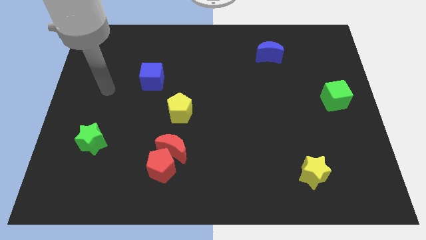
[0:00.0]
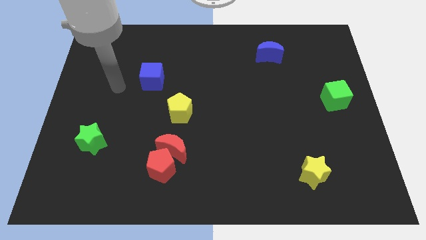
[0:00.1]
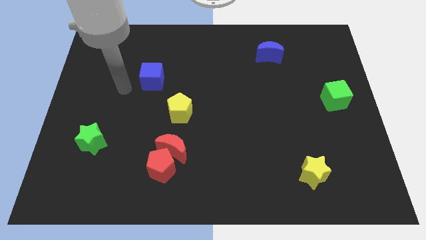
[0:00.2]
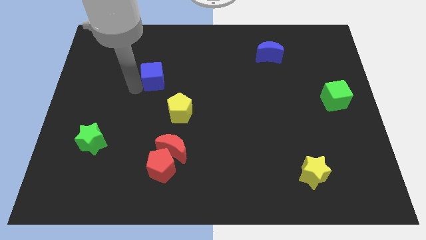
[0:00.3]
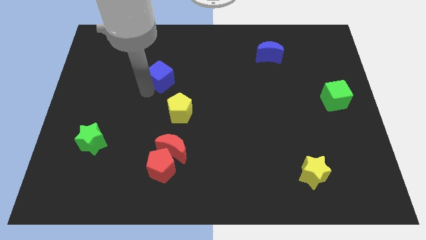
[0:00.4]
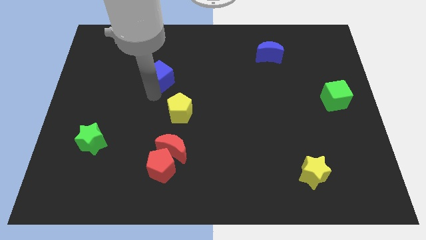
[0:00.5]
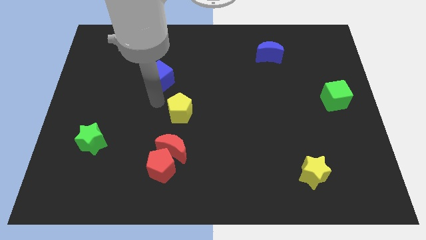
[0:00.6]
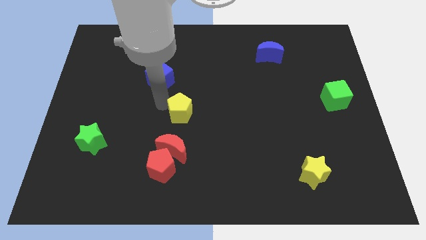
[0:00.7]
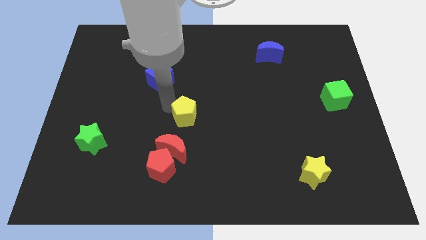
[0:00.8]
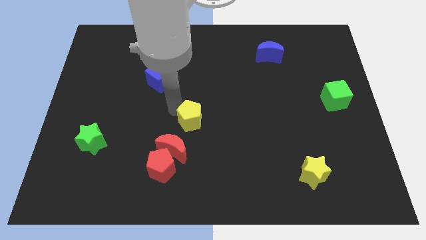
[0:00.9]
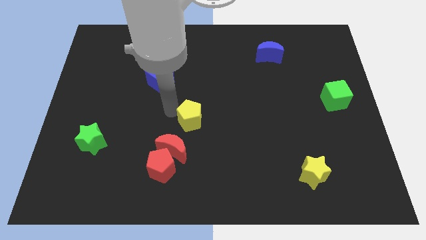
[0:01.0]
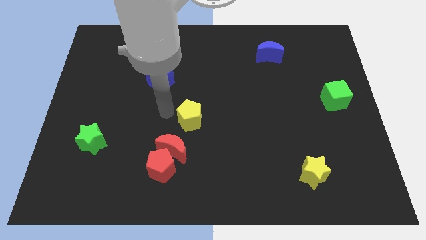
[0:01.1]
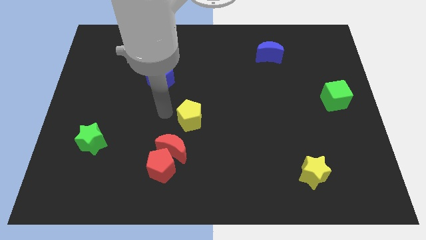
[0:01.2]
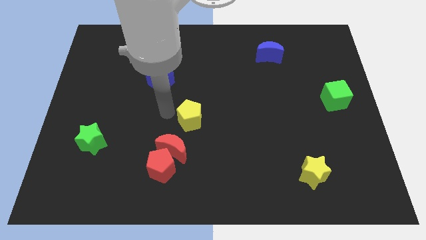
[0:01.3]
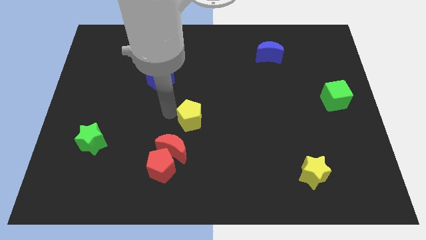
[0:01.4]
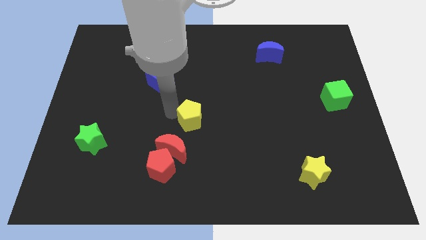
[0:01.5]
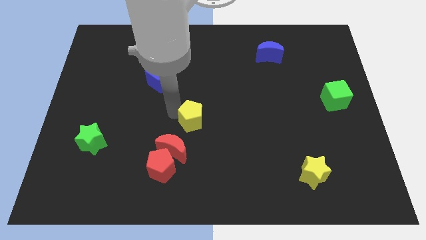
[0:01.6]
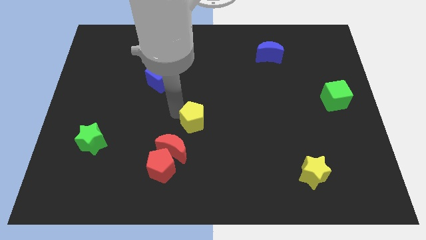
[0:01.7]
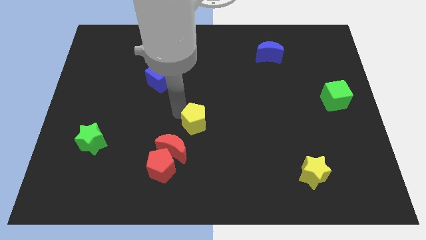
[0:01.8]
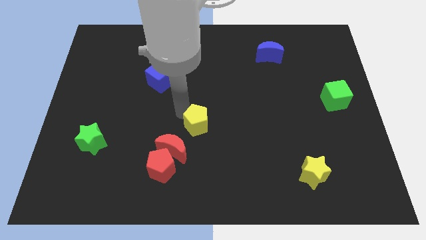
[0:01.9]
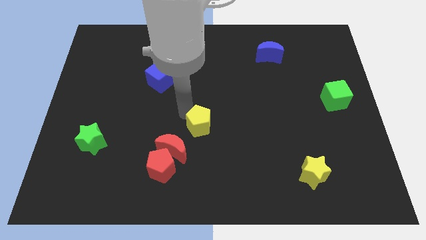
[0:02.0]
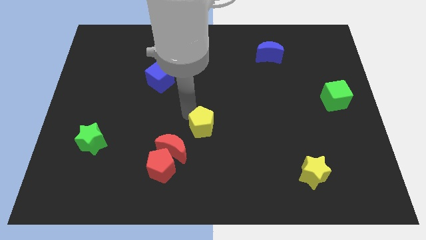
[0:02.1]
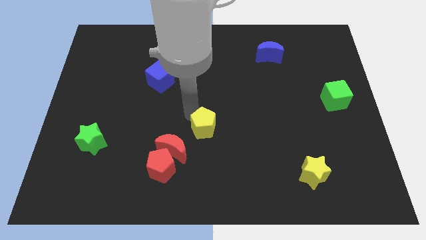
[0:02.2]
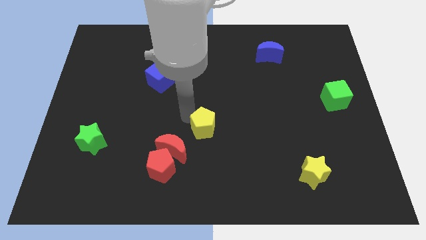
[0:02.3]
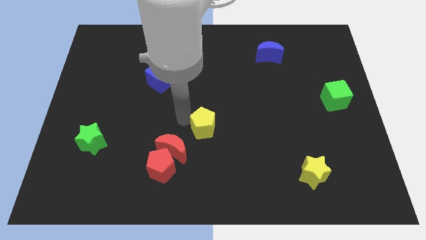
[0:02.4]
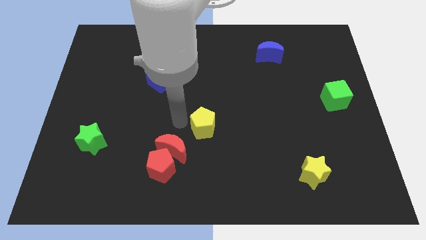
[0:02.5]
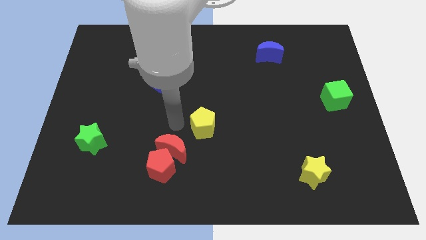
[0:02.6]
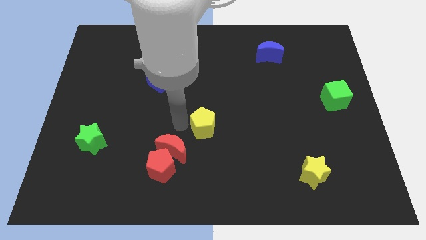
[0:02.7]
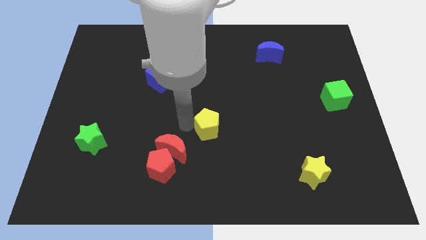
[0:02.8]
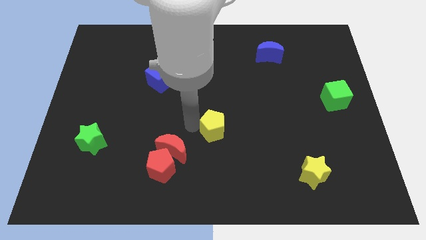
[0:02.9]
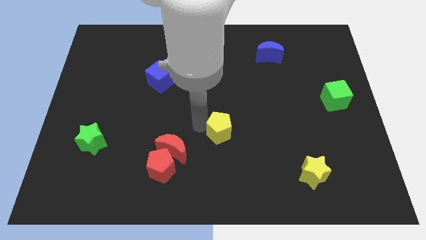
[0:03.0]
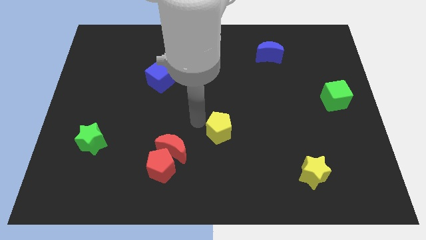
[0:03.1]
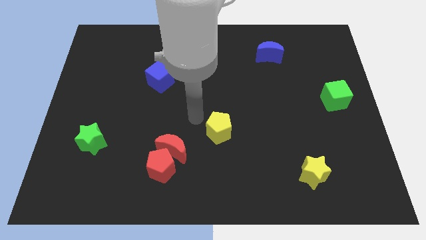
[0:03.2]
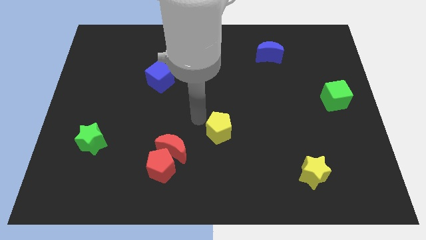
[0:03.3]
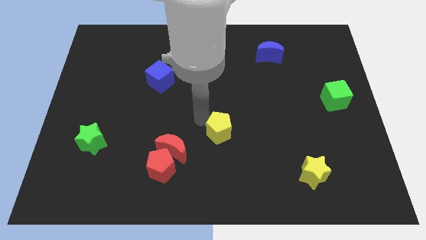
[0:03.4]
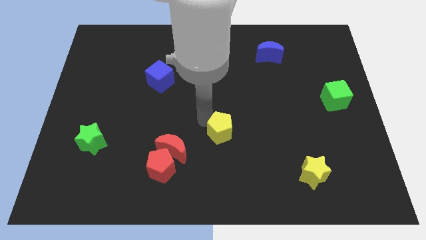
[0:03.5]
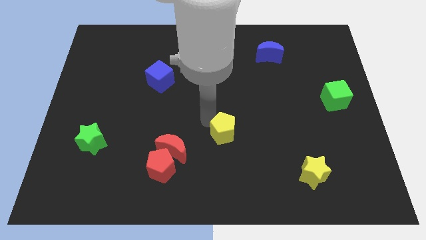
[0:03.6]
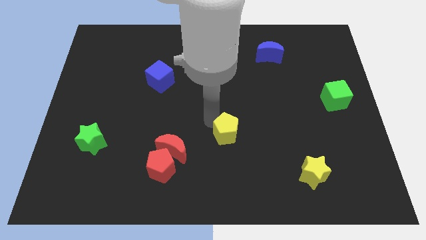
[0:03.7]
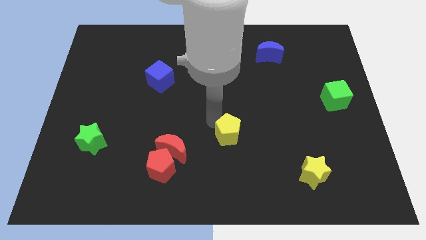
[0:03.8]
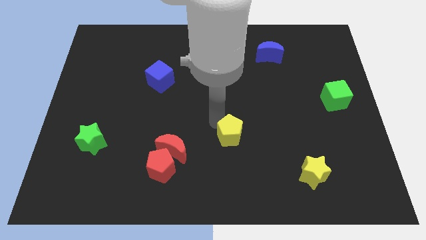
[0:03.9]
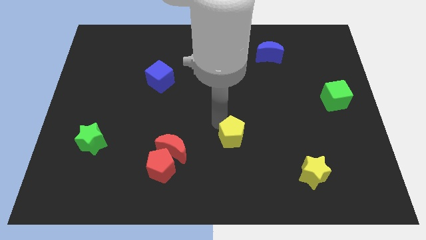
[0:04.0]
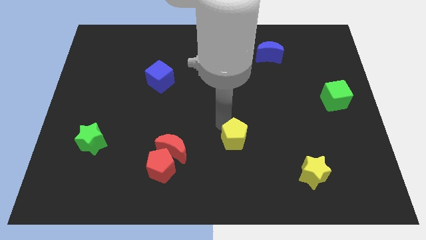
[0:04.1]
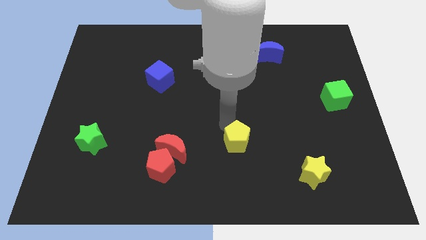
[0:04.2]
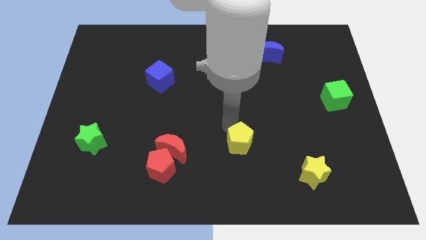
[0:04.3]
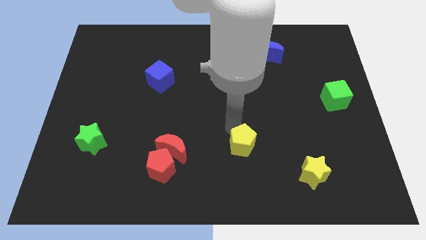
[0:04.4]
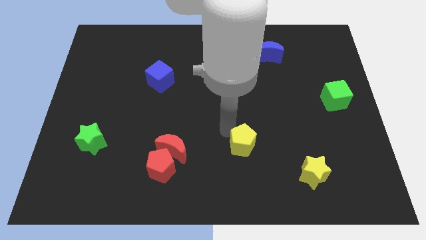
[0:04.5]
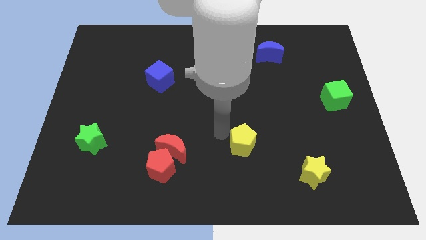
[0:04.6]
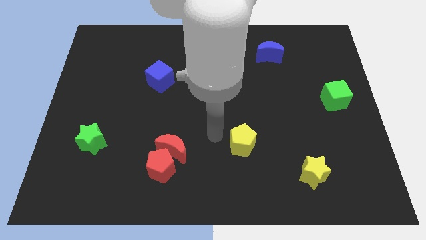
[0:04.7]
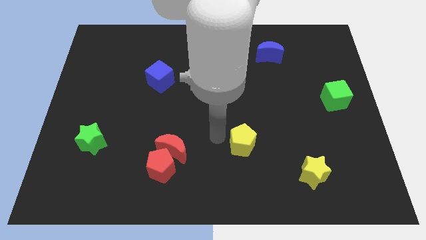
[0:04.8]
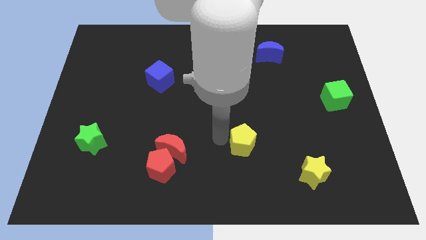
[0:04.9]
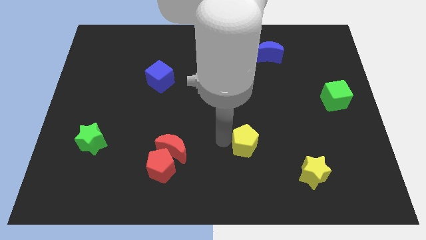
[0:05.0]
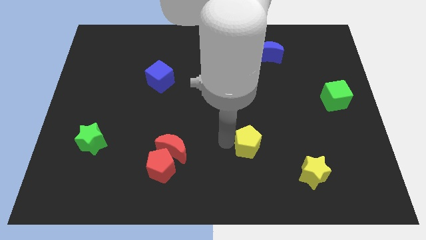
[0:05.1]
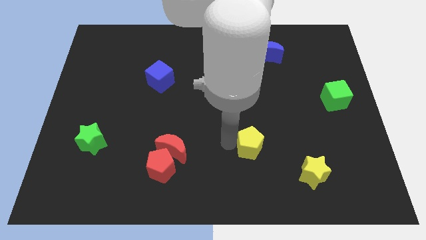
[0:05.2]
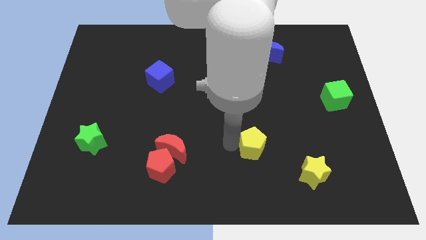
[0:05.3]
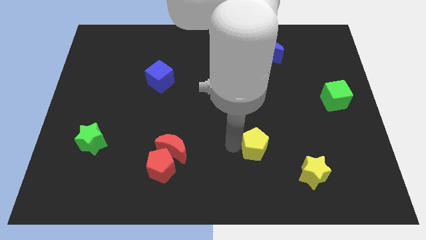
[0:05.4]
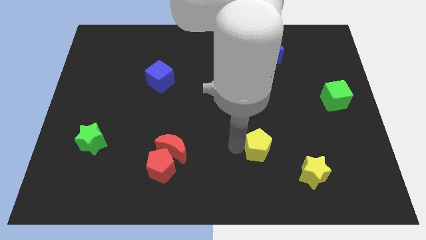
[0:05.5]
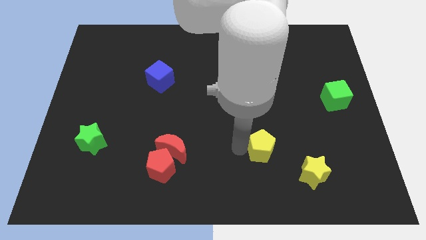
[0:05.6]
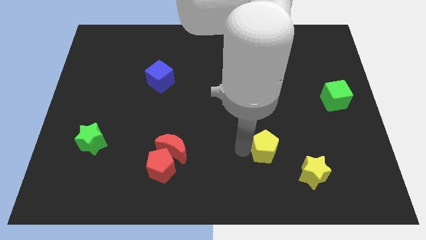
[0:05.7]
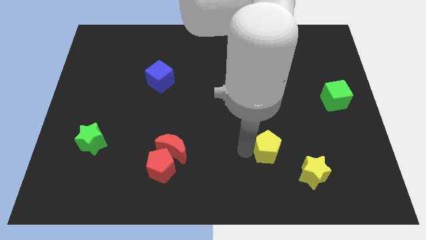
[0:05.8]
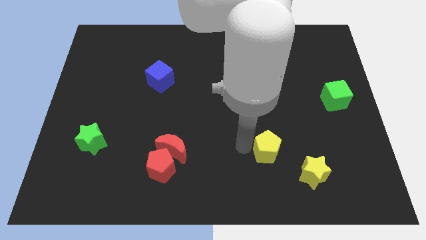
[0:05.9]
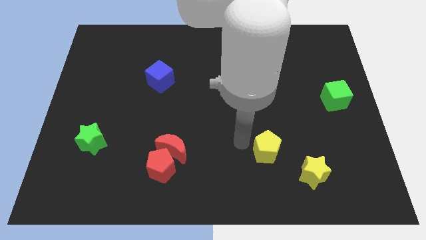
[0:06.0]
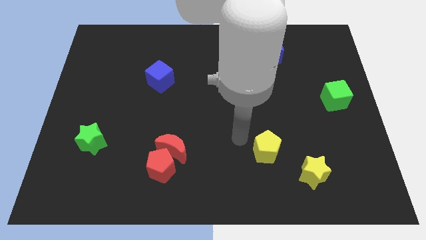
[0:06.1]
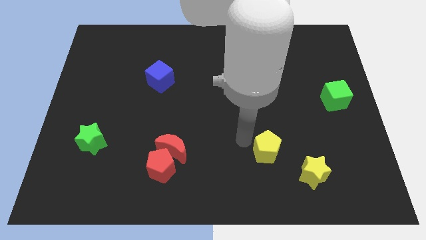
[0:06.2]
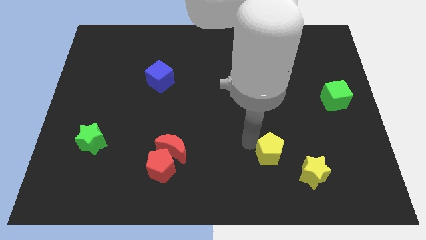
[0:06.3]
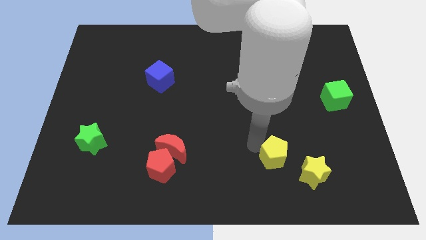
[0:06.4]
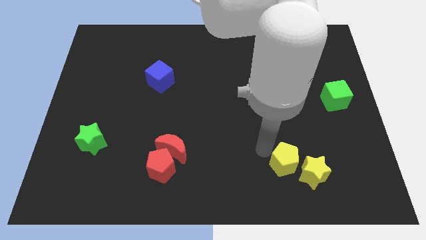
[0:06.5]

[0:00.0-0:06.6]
move the yellow pentagon close to the yellow star

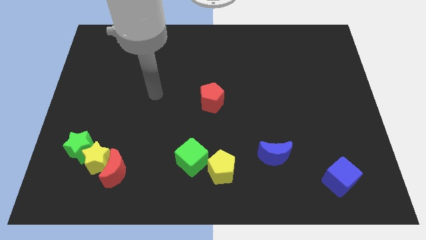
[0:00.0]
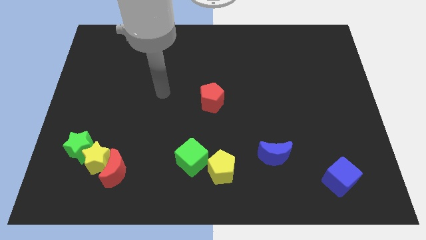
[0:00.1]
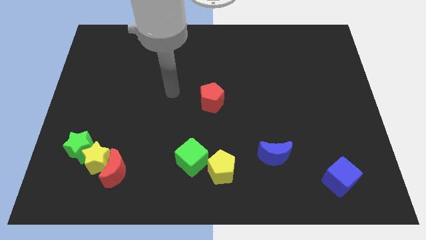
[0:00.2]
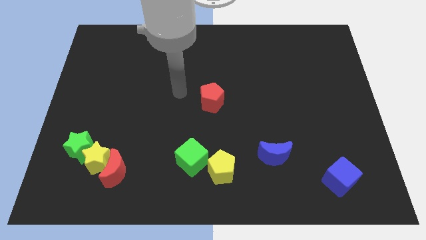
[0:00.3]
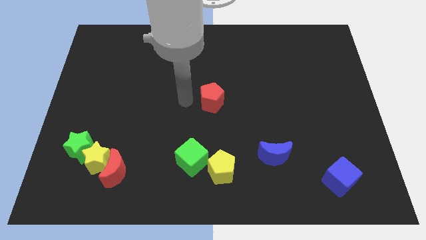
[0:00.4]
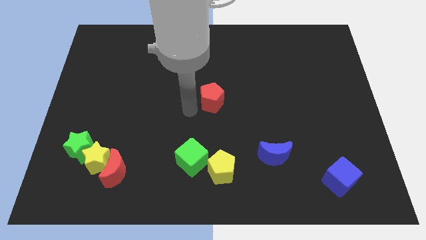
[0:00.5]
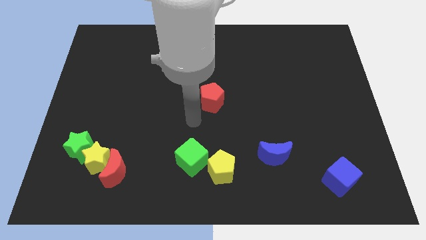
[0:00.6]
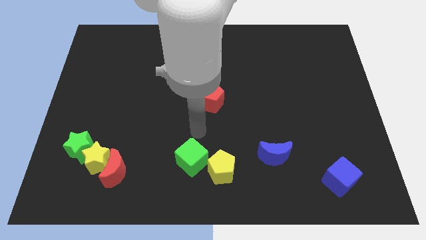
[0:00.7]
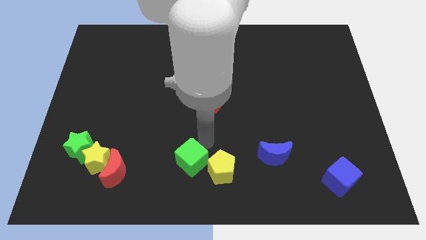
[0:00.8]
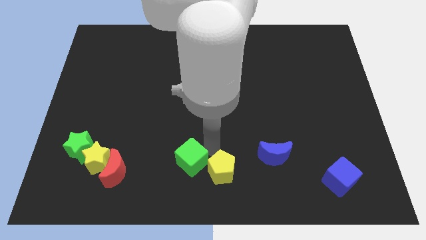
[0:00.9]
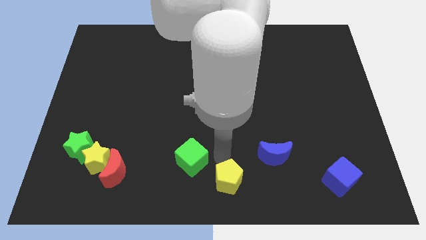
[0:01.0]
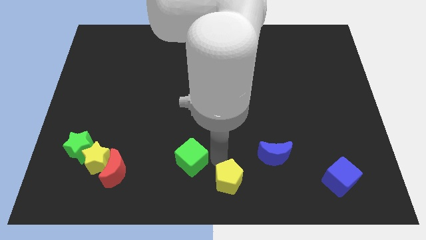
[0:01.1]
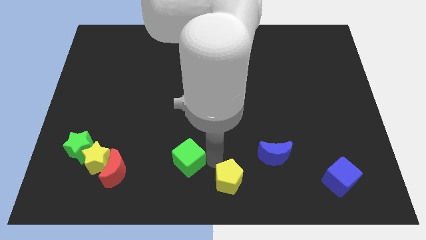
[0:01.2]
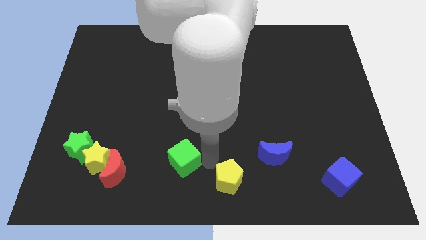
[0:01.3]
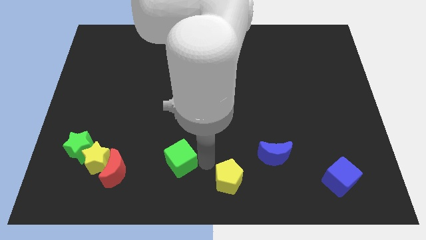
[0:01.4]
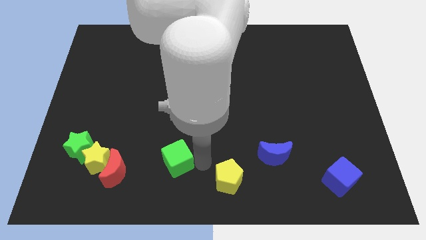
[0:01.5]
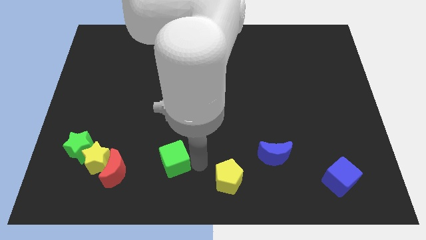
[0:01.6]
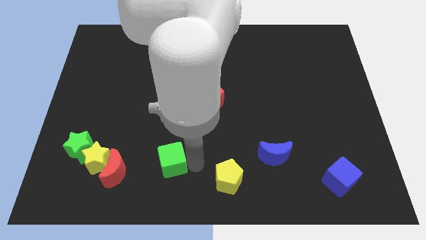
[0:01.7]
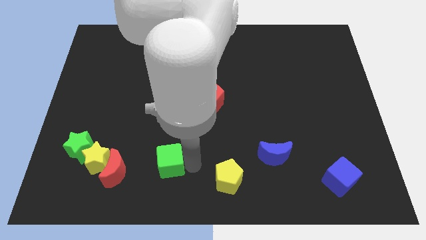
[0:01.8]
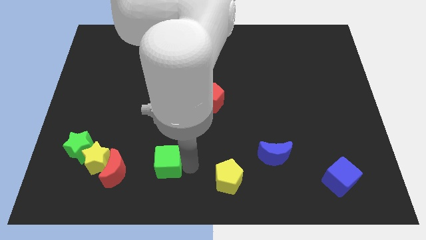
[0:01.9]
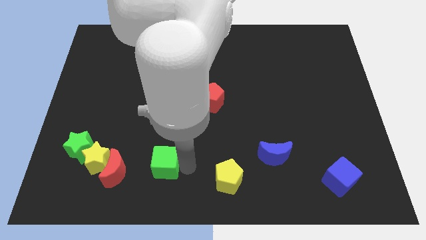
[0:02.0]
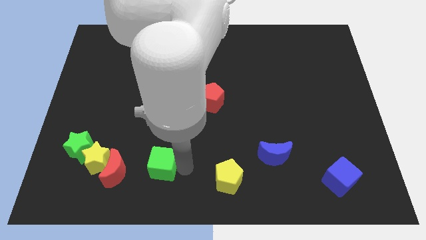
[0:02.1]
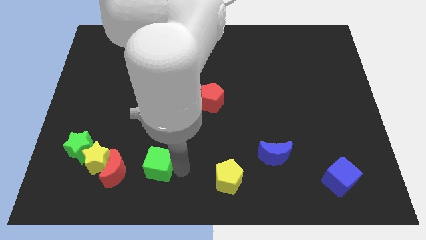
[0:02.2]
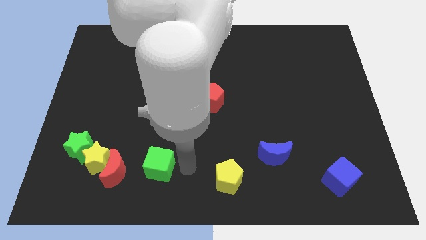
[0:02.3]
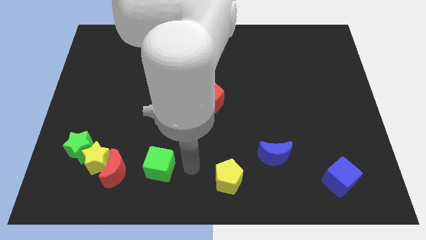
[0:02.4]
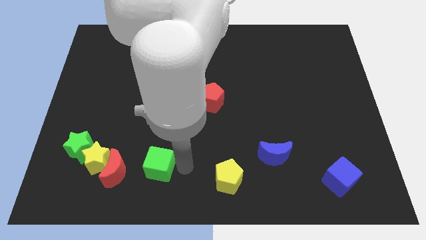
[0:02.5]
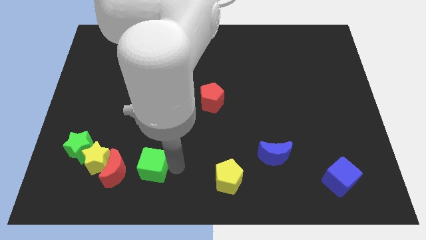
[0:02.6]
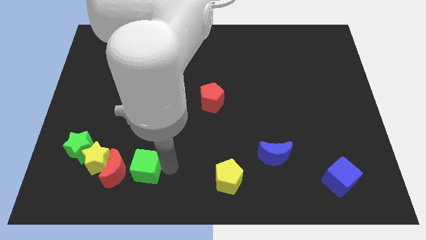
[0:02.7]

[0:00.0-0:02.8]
put the green cube towards the red moon
